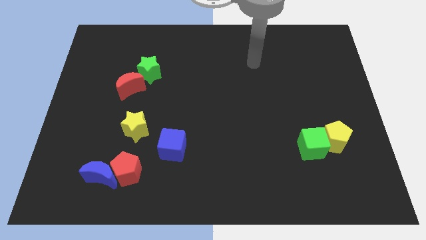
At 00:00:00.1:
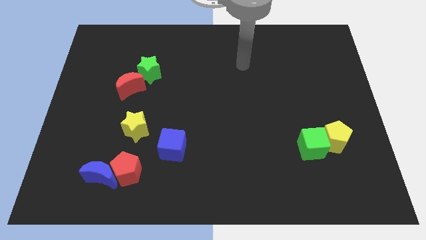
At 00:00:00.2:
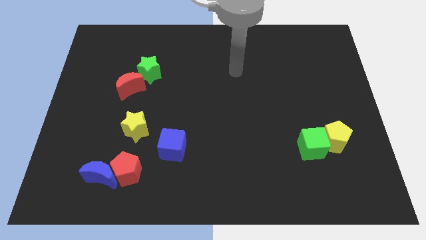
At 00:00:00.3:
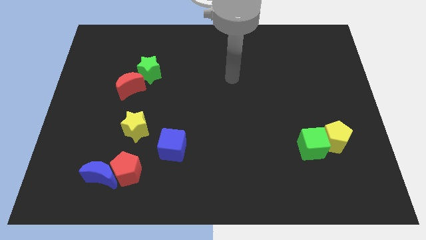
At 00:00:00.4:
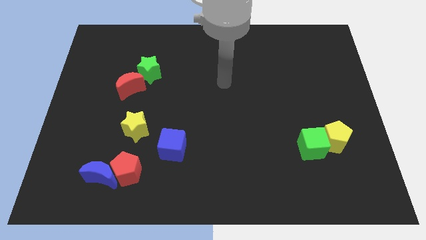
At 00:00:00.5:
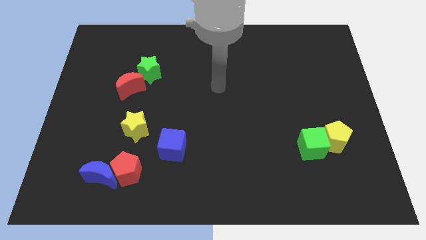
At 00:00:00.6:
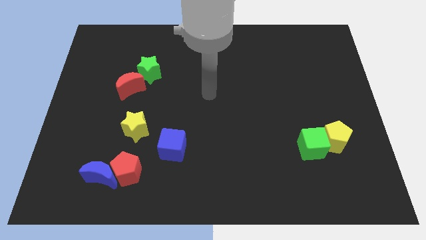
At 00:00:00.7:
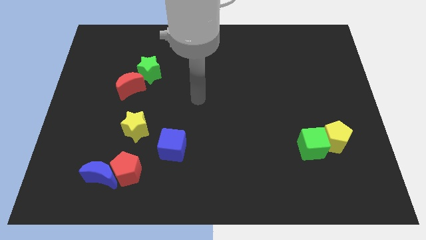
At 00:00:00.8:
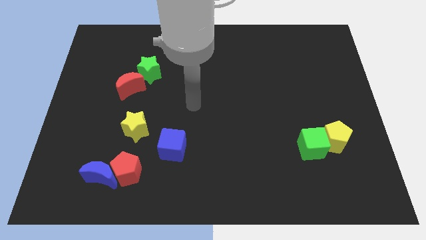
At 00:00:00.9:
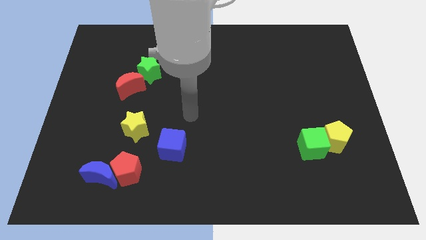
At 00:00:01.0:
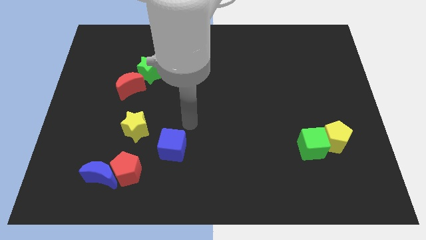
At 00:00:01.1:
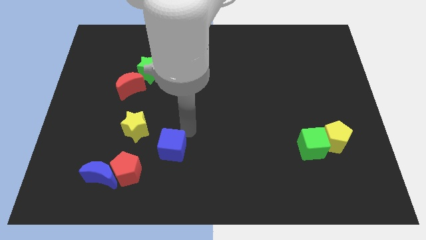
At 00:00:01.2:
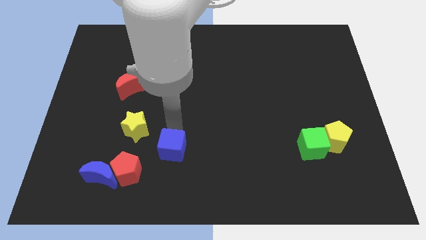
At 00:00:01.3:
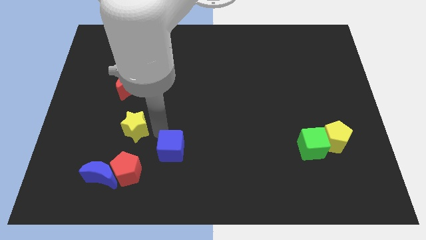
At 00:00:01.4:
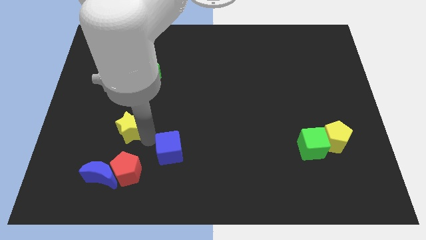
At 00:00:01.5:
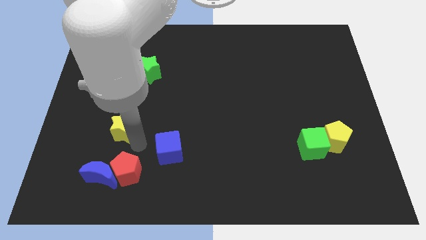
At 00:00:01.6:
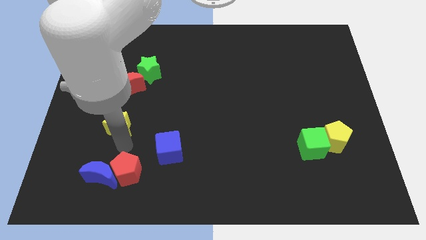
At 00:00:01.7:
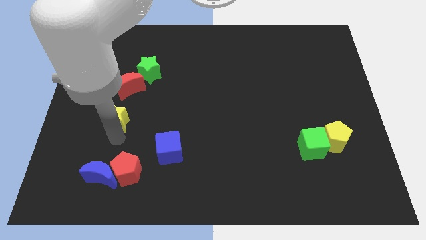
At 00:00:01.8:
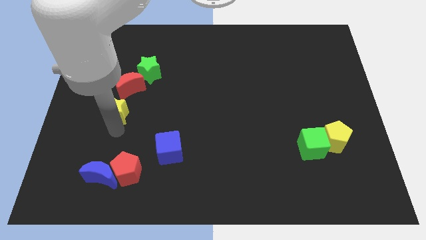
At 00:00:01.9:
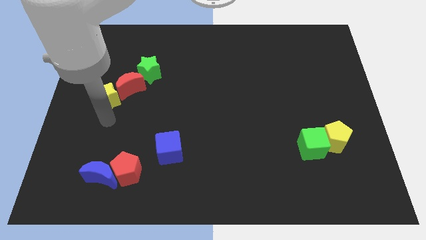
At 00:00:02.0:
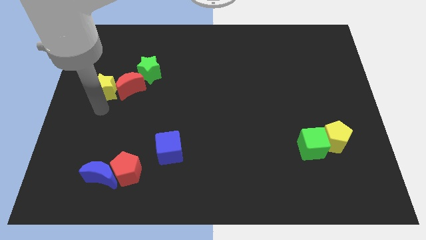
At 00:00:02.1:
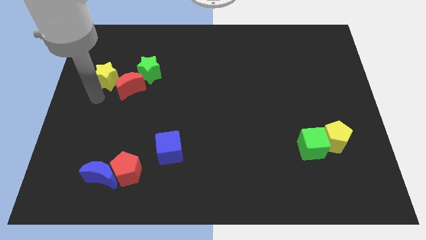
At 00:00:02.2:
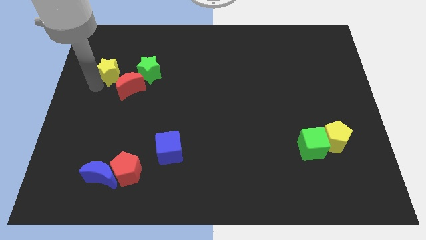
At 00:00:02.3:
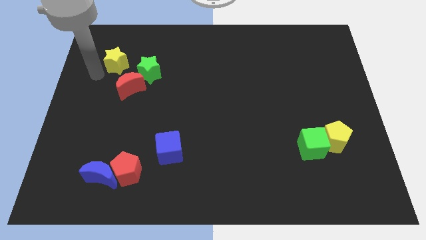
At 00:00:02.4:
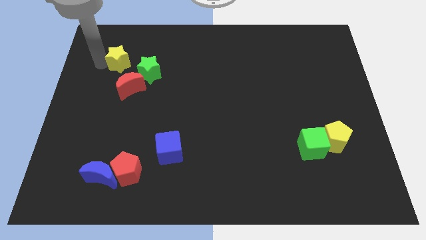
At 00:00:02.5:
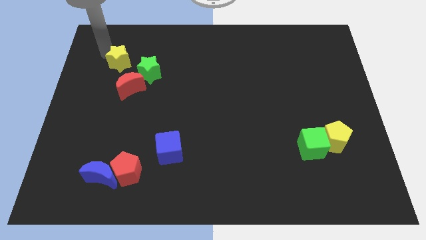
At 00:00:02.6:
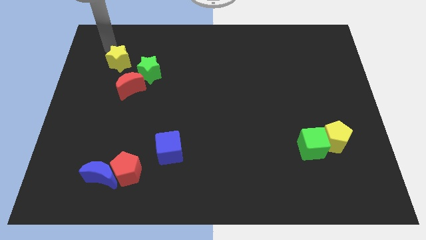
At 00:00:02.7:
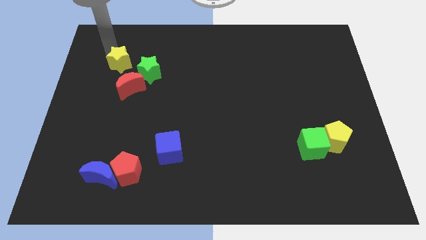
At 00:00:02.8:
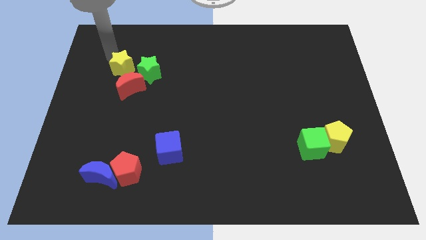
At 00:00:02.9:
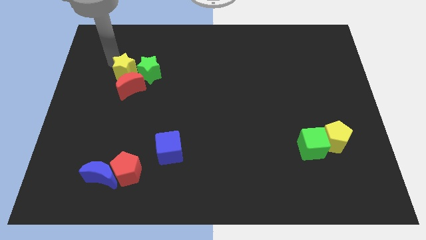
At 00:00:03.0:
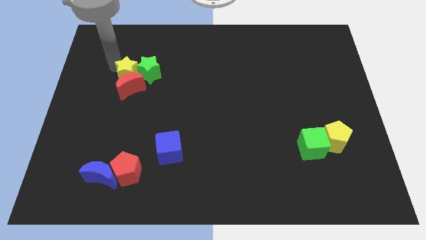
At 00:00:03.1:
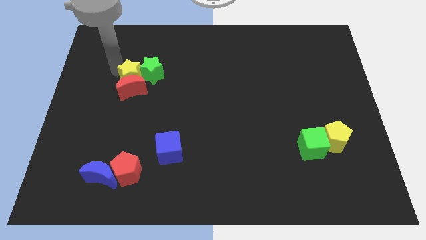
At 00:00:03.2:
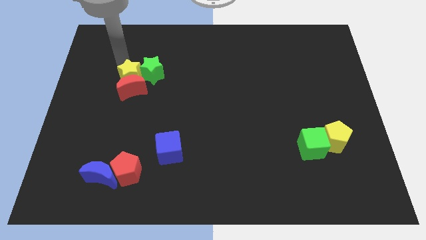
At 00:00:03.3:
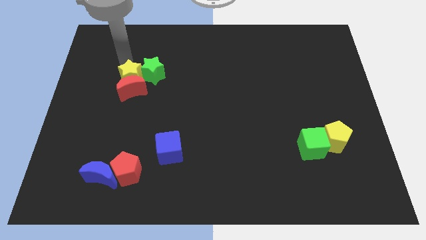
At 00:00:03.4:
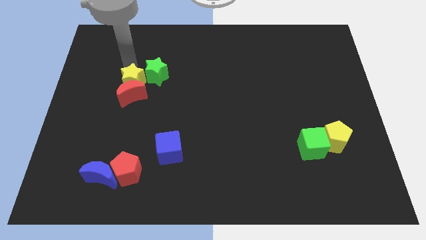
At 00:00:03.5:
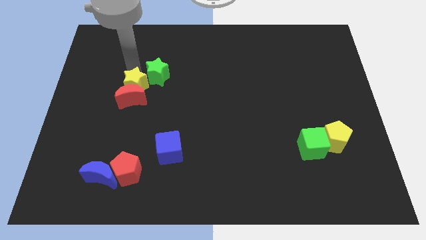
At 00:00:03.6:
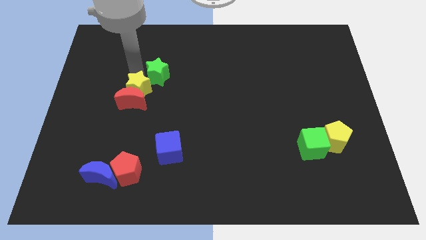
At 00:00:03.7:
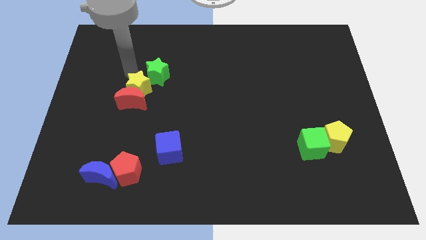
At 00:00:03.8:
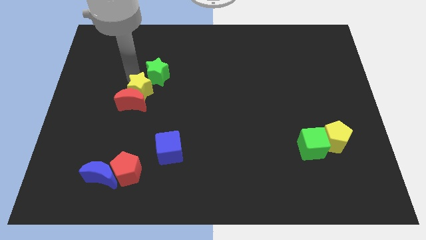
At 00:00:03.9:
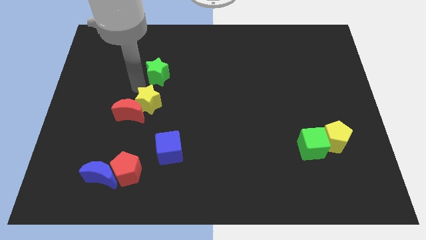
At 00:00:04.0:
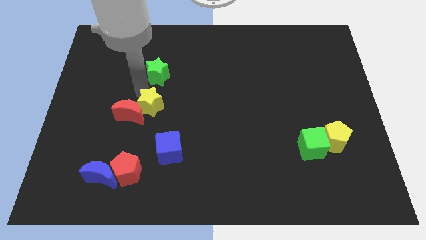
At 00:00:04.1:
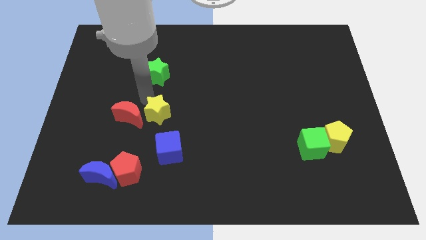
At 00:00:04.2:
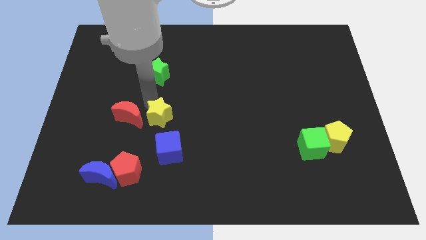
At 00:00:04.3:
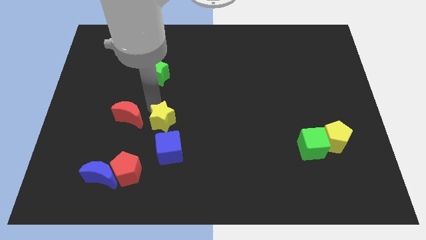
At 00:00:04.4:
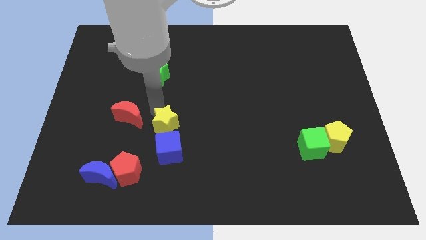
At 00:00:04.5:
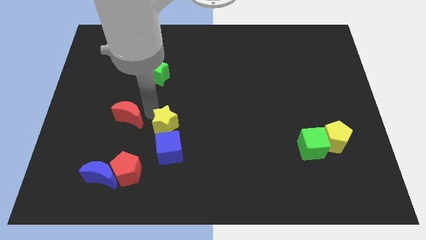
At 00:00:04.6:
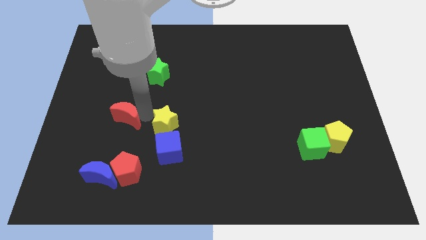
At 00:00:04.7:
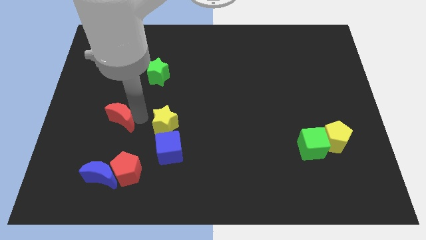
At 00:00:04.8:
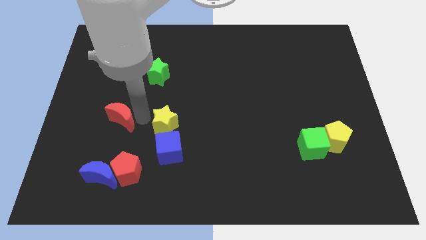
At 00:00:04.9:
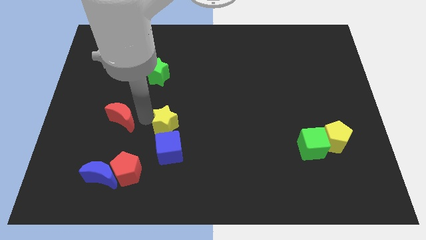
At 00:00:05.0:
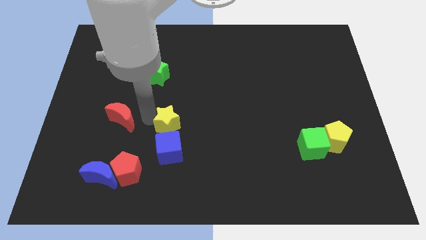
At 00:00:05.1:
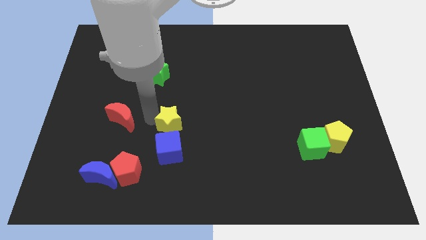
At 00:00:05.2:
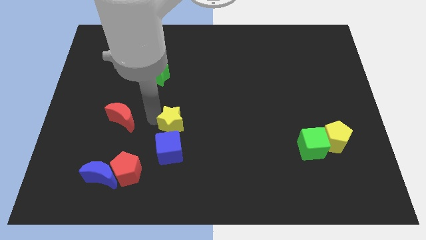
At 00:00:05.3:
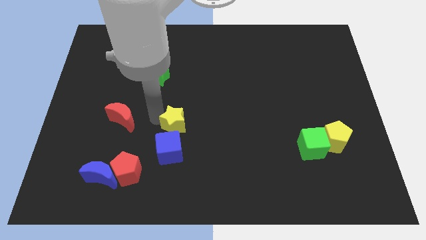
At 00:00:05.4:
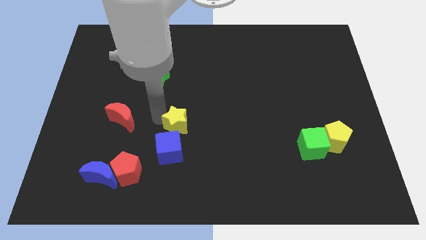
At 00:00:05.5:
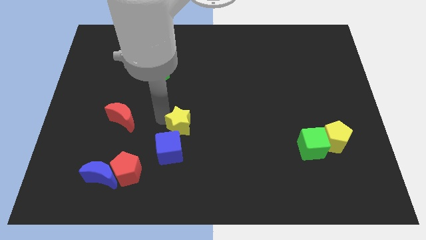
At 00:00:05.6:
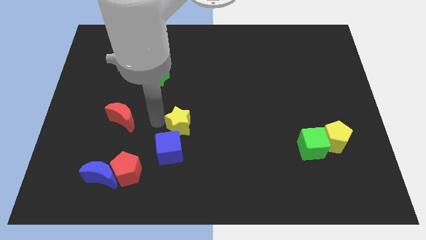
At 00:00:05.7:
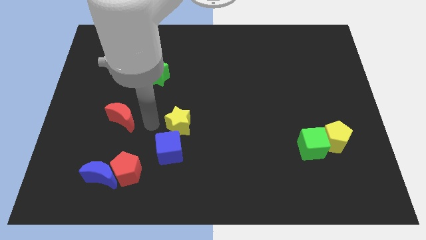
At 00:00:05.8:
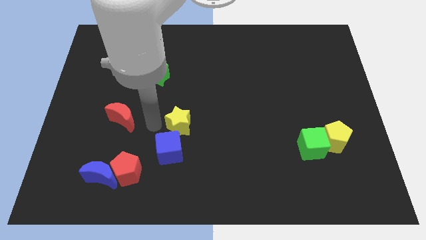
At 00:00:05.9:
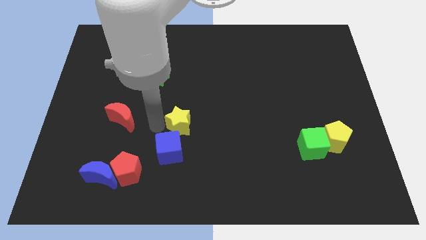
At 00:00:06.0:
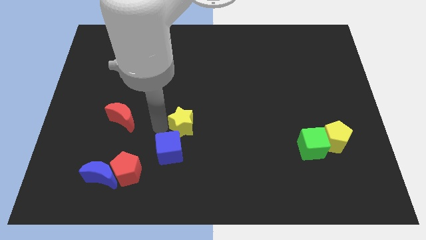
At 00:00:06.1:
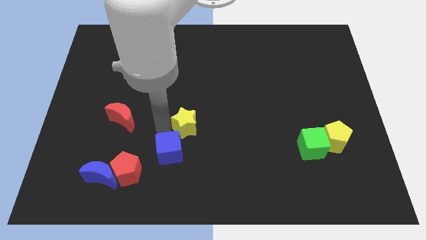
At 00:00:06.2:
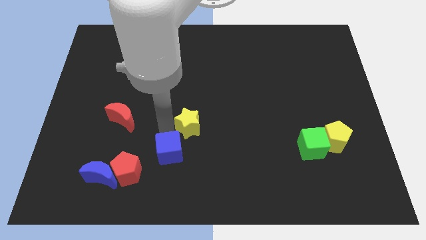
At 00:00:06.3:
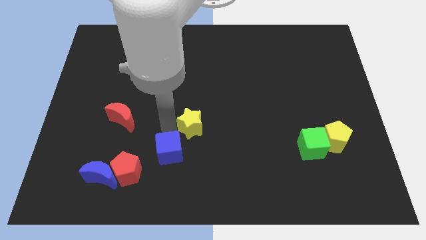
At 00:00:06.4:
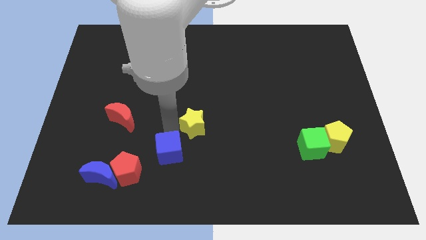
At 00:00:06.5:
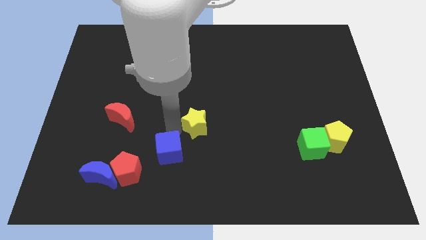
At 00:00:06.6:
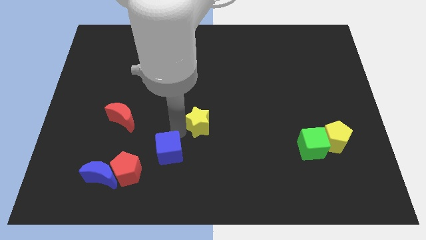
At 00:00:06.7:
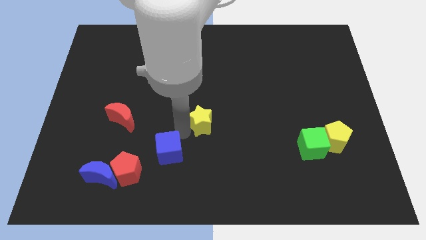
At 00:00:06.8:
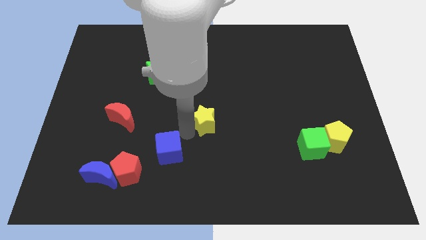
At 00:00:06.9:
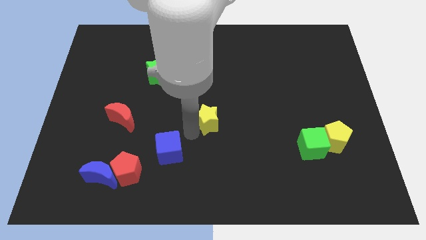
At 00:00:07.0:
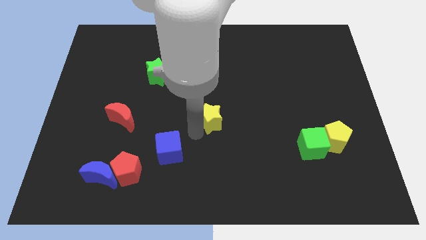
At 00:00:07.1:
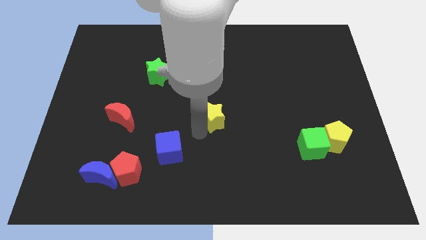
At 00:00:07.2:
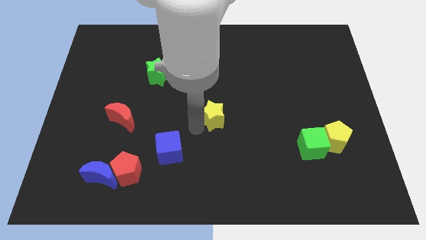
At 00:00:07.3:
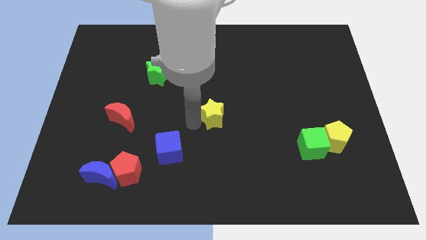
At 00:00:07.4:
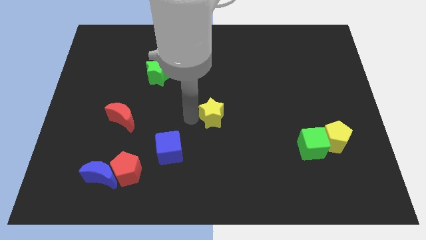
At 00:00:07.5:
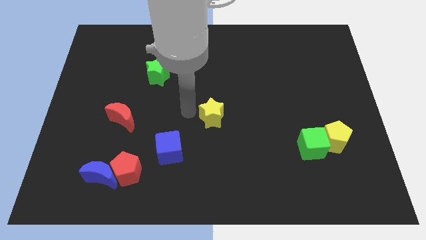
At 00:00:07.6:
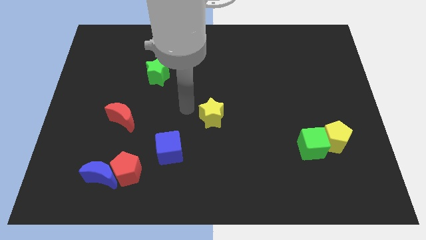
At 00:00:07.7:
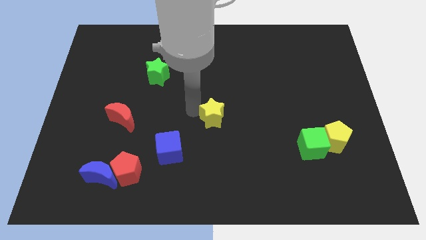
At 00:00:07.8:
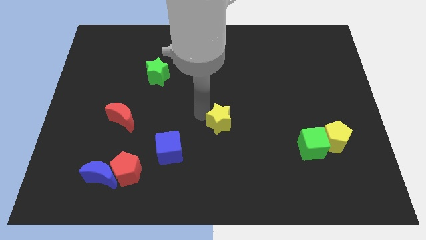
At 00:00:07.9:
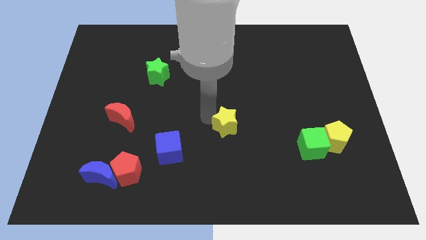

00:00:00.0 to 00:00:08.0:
push the yellow star to the right

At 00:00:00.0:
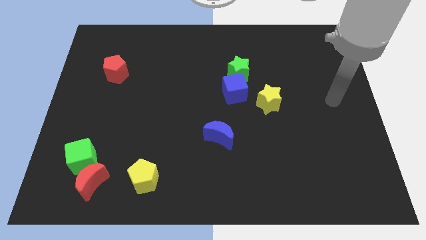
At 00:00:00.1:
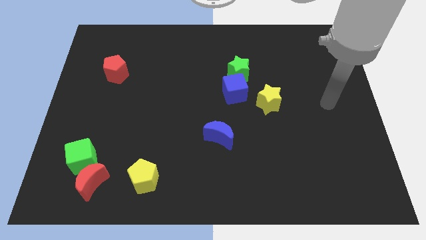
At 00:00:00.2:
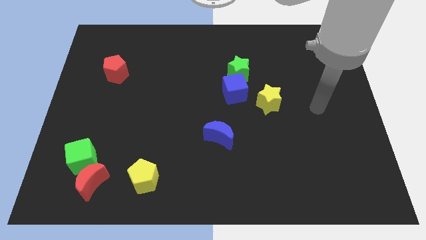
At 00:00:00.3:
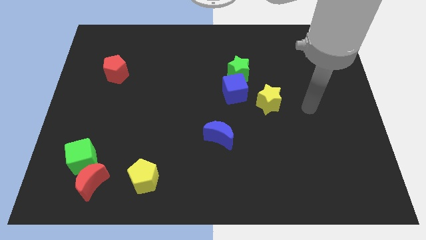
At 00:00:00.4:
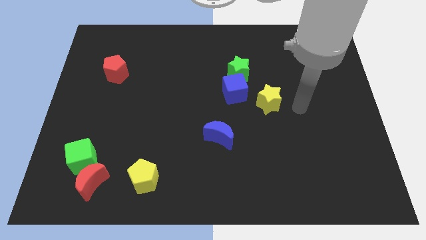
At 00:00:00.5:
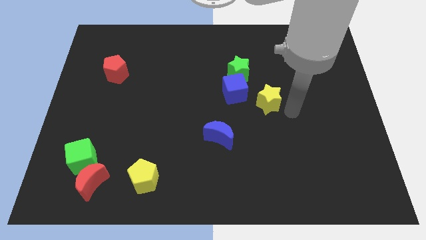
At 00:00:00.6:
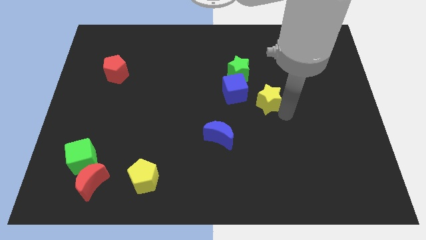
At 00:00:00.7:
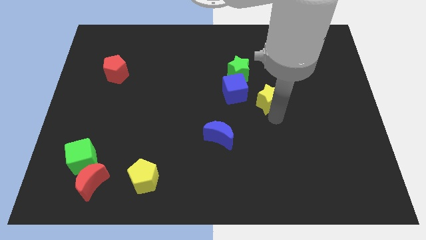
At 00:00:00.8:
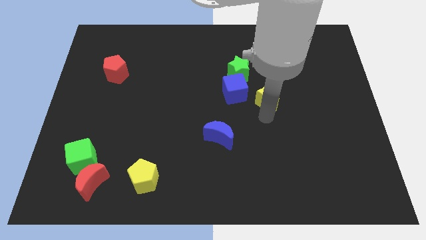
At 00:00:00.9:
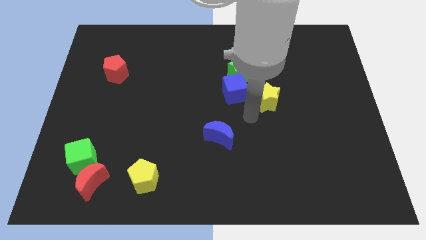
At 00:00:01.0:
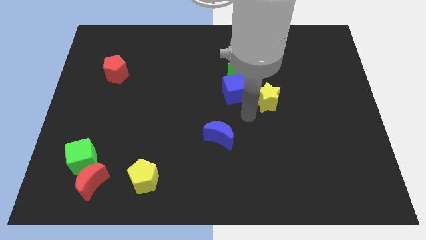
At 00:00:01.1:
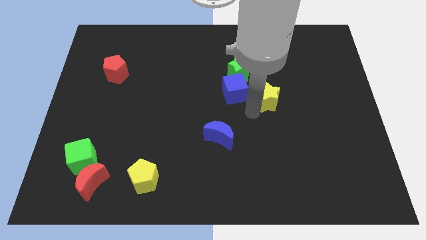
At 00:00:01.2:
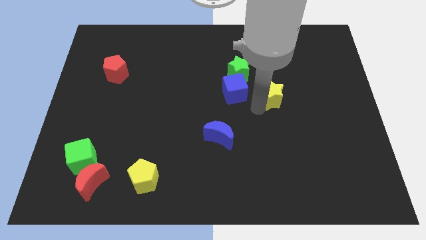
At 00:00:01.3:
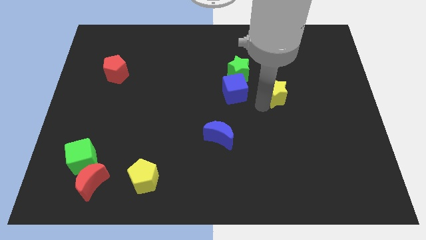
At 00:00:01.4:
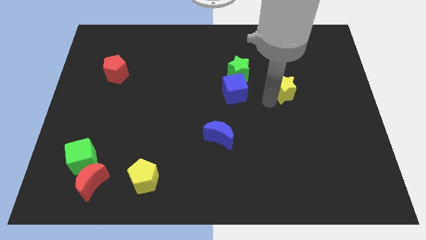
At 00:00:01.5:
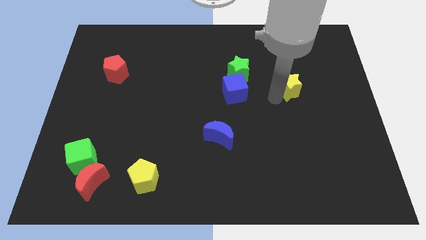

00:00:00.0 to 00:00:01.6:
slide the yellow star upwards and to the right a little bit
